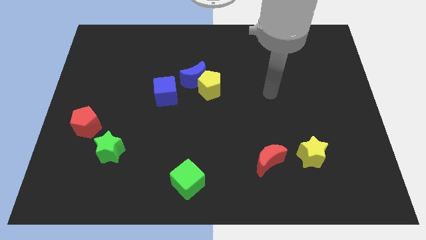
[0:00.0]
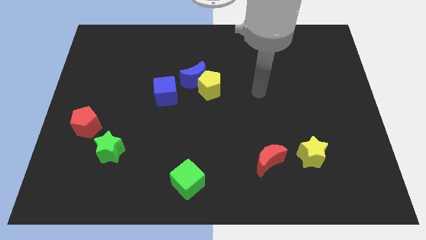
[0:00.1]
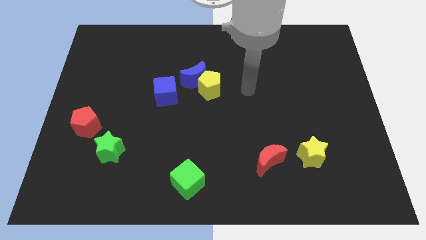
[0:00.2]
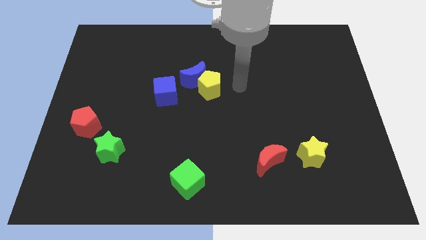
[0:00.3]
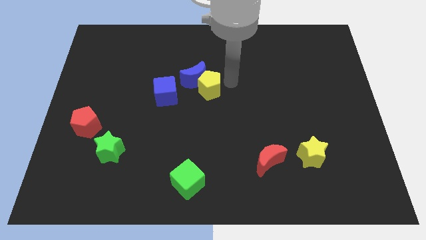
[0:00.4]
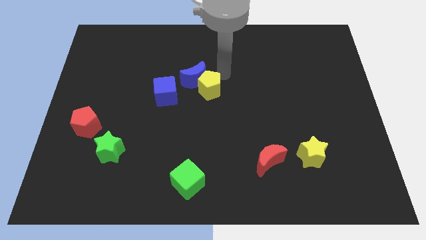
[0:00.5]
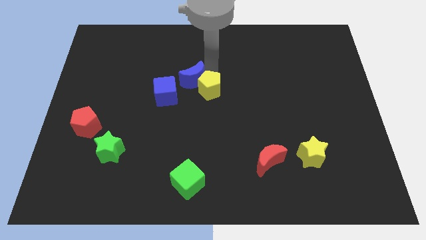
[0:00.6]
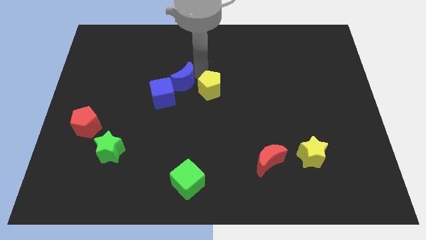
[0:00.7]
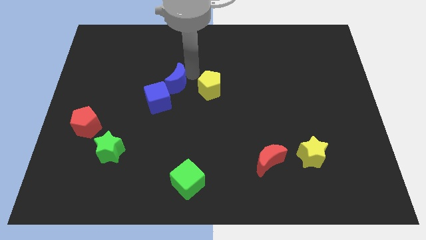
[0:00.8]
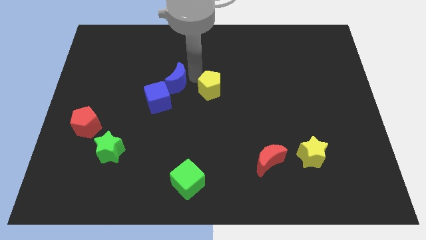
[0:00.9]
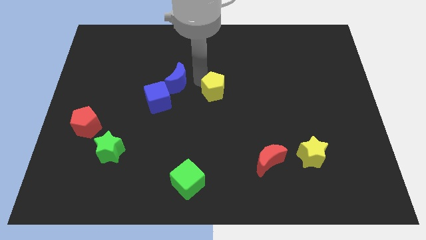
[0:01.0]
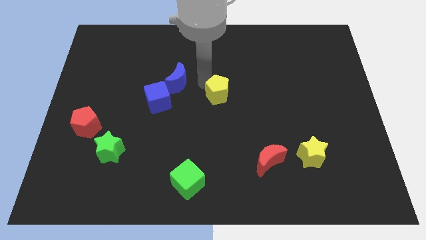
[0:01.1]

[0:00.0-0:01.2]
move the yellow pentagon away from the blue moon

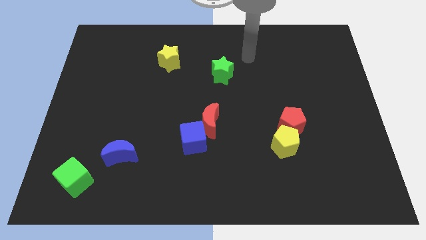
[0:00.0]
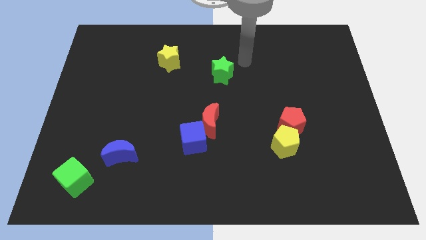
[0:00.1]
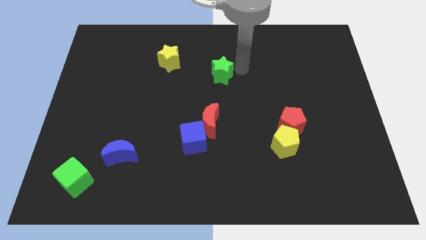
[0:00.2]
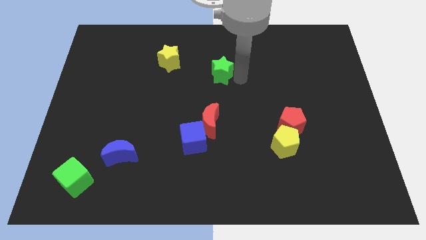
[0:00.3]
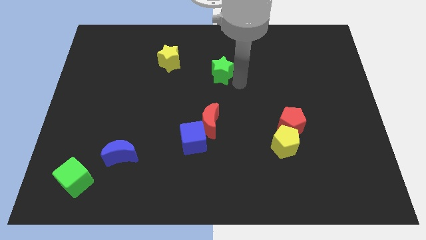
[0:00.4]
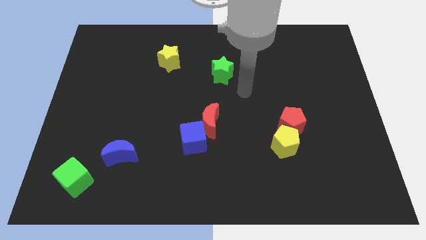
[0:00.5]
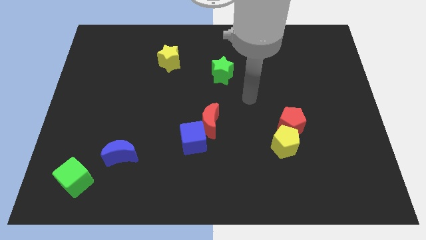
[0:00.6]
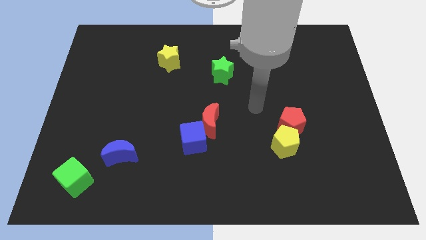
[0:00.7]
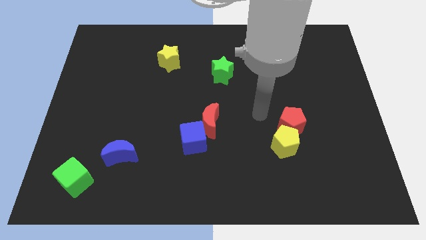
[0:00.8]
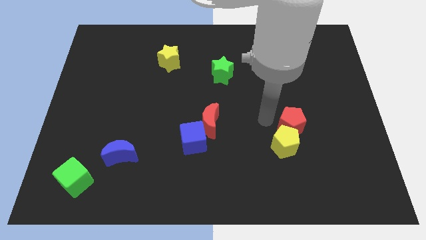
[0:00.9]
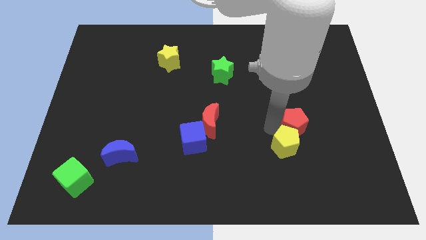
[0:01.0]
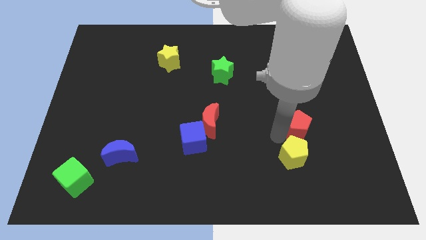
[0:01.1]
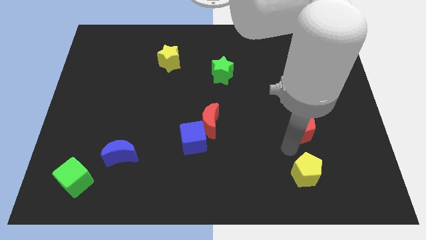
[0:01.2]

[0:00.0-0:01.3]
move the red pentagon away from the yellow pentagon

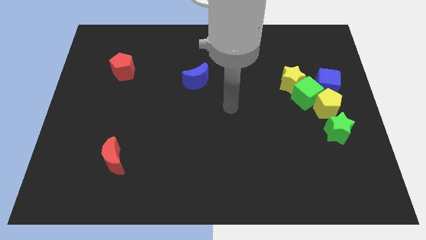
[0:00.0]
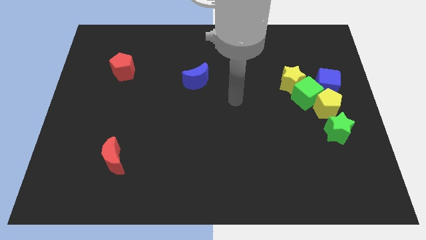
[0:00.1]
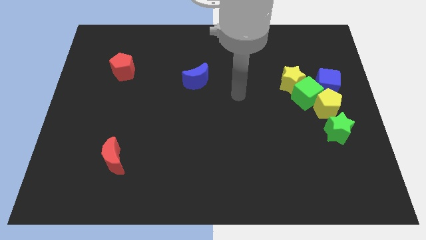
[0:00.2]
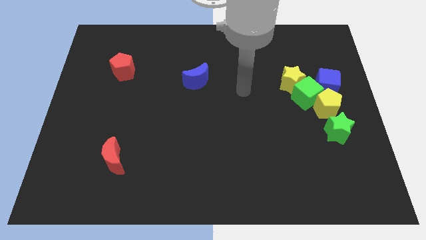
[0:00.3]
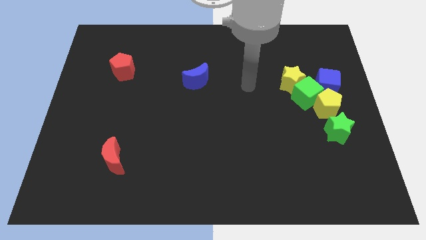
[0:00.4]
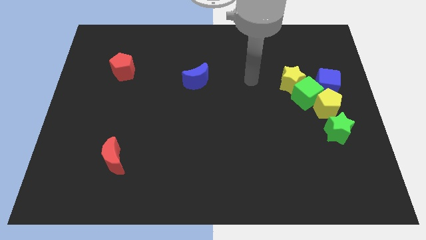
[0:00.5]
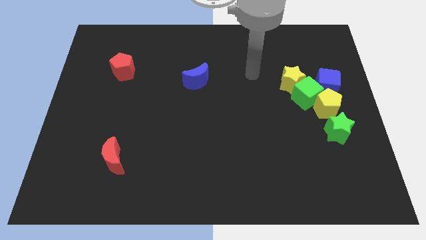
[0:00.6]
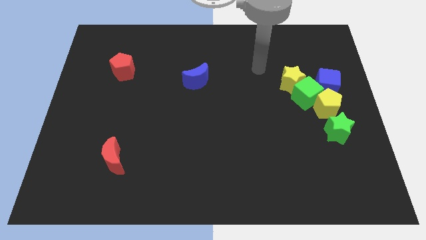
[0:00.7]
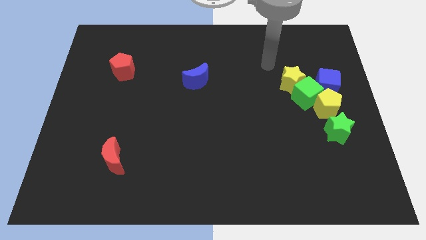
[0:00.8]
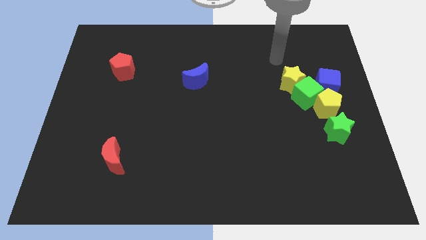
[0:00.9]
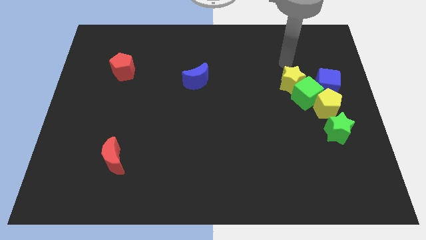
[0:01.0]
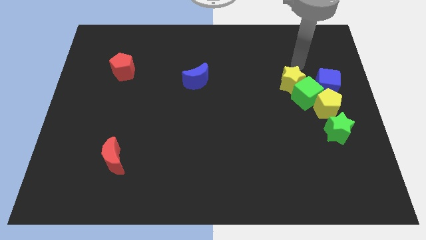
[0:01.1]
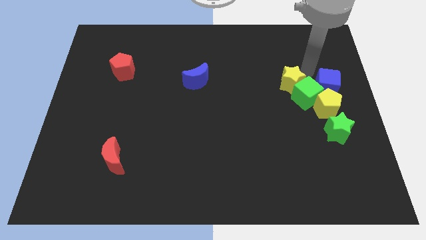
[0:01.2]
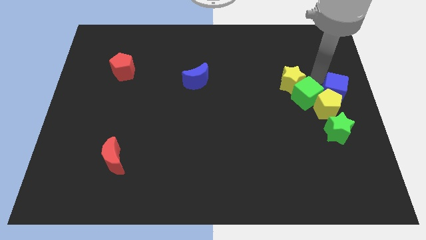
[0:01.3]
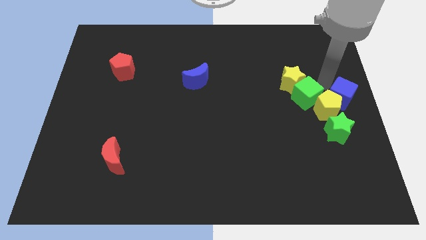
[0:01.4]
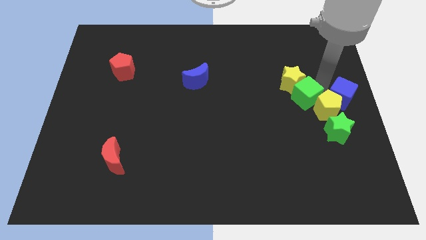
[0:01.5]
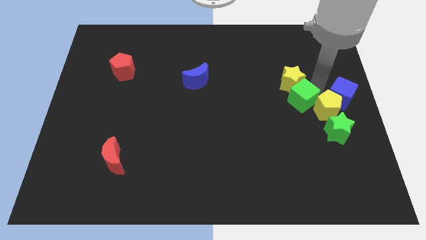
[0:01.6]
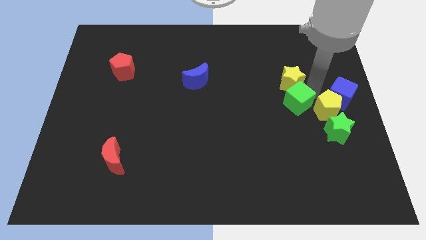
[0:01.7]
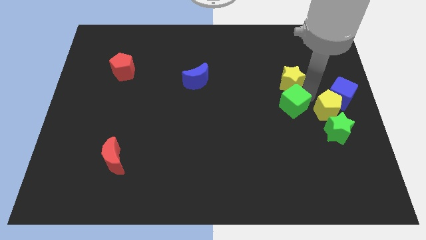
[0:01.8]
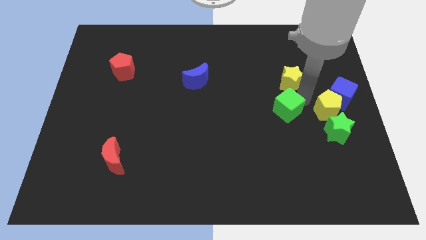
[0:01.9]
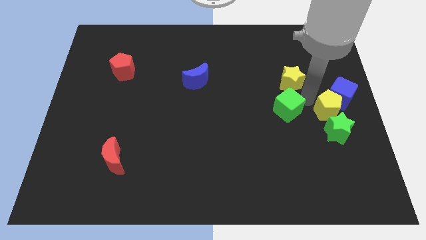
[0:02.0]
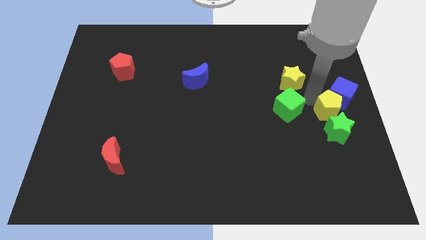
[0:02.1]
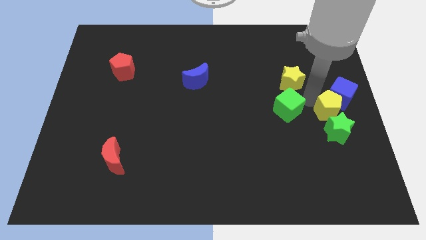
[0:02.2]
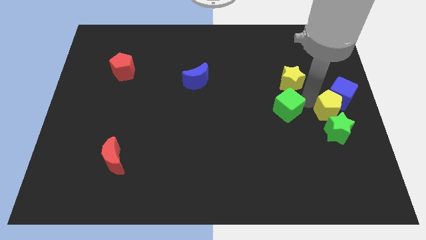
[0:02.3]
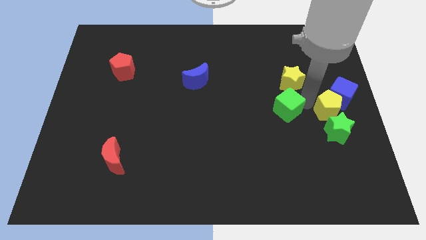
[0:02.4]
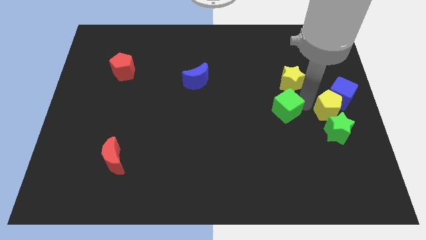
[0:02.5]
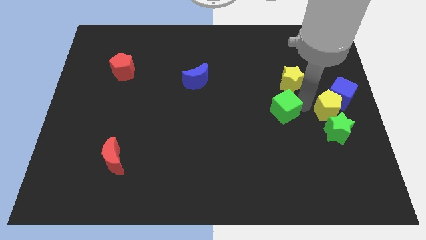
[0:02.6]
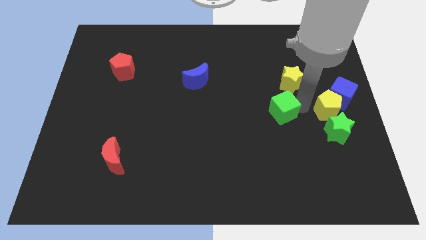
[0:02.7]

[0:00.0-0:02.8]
separate the green cube from the yellow star, yellow pentagon, and blue cube

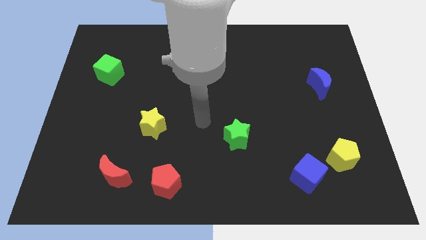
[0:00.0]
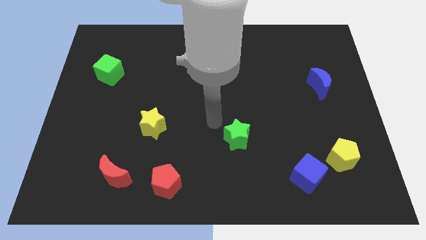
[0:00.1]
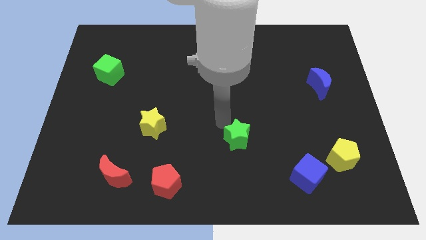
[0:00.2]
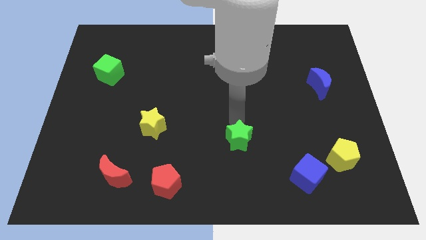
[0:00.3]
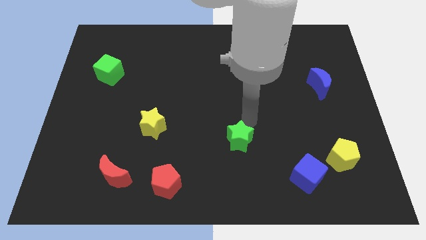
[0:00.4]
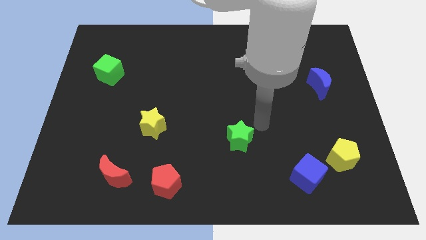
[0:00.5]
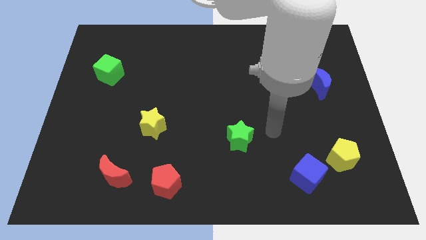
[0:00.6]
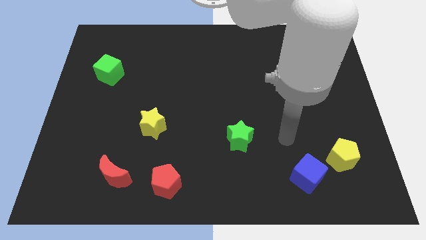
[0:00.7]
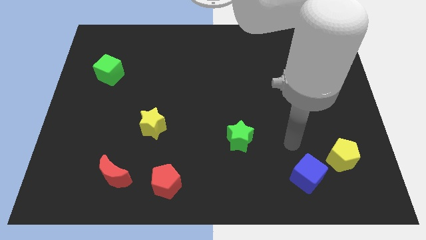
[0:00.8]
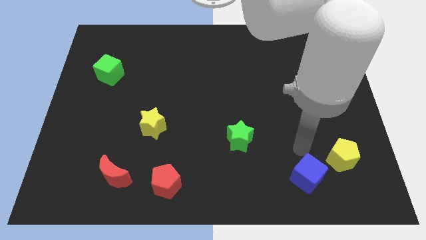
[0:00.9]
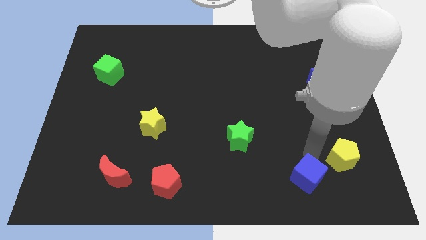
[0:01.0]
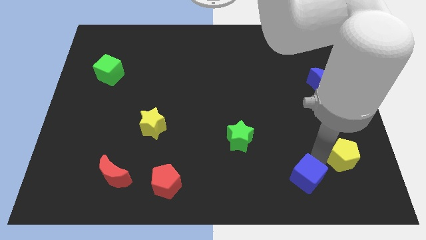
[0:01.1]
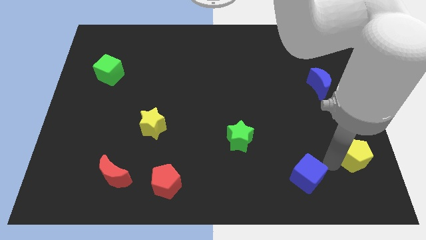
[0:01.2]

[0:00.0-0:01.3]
pull the blue cube apart from the yellow pentagon

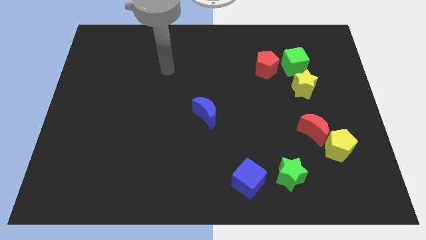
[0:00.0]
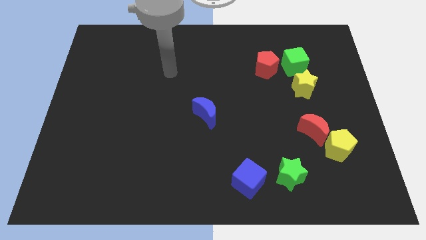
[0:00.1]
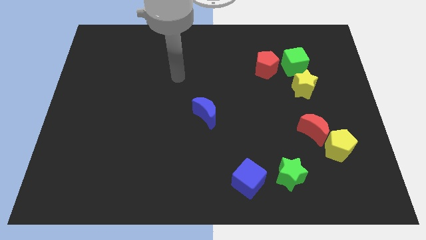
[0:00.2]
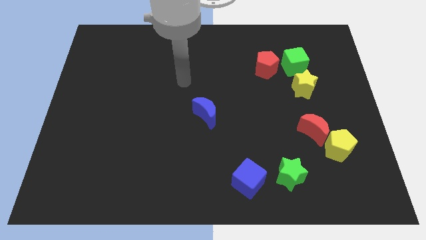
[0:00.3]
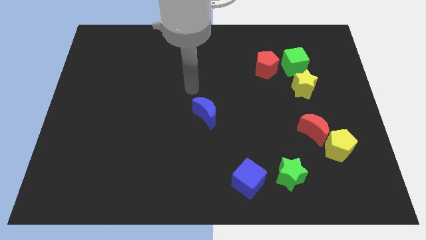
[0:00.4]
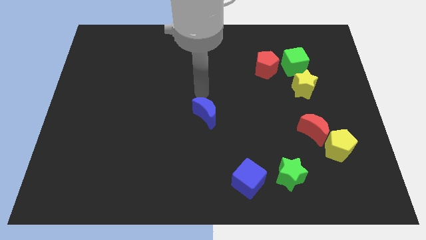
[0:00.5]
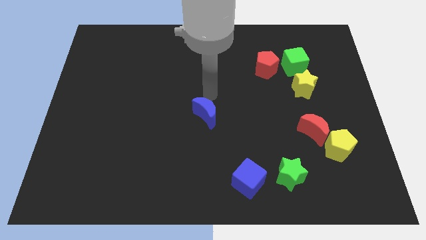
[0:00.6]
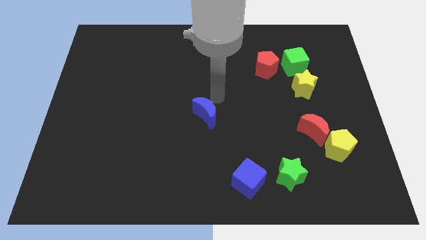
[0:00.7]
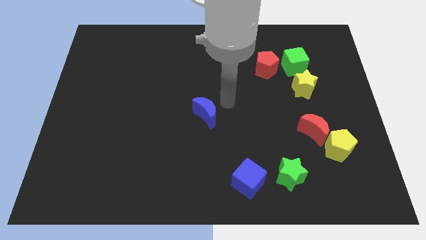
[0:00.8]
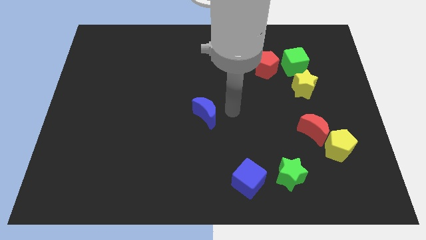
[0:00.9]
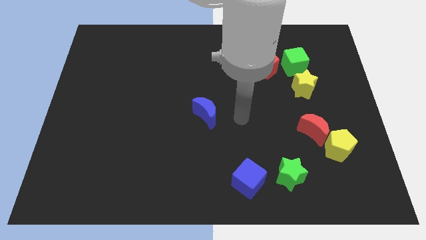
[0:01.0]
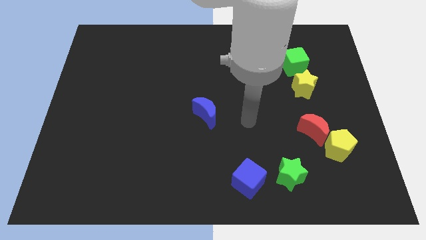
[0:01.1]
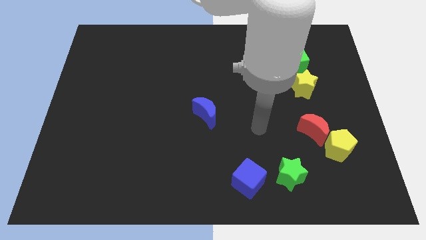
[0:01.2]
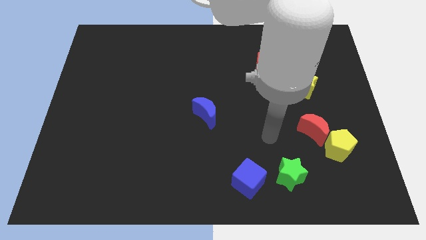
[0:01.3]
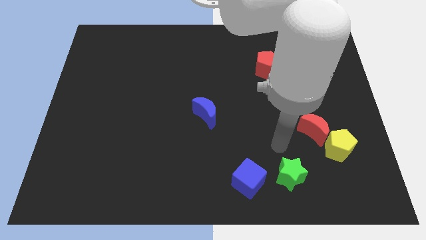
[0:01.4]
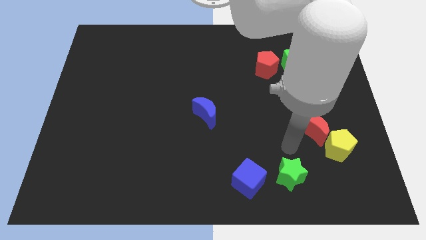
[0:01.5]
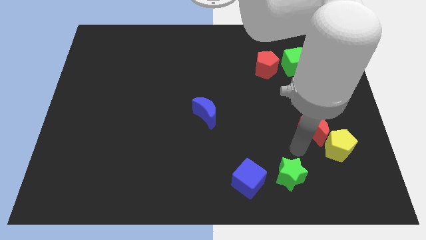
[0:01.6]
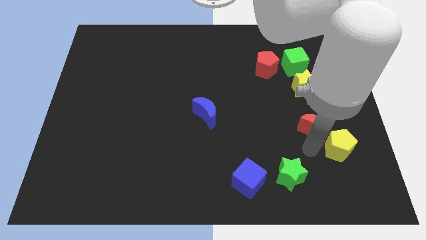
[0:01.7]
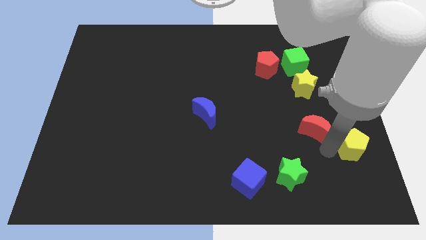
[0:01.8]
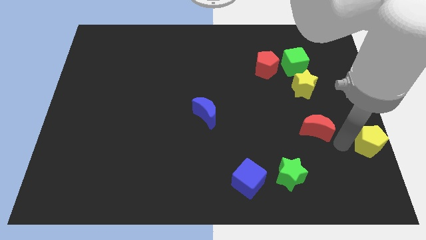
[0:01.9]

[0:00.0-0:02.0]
separate the red moon from the yellow pentagon

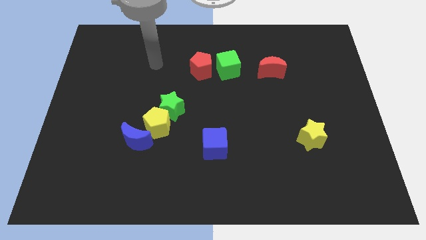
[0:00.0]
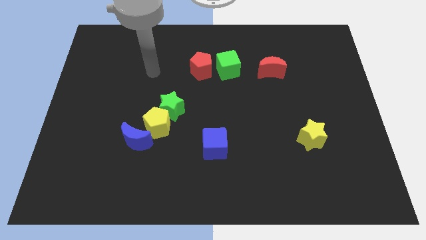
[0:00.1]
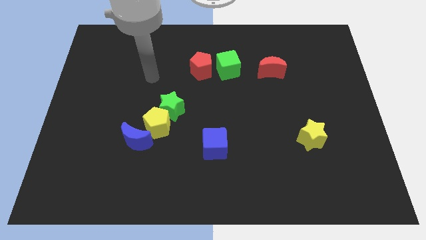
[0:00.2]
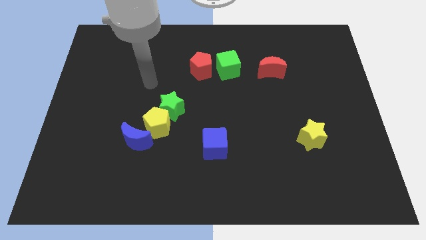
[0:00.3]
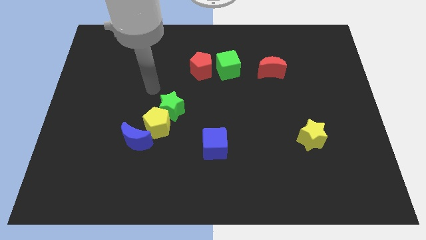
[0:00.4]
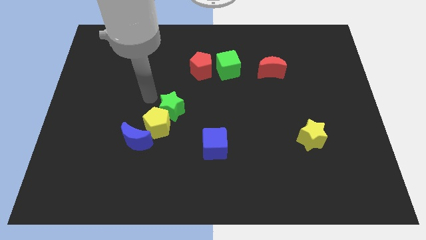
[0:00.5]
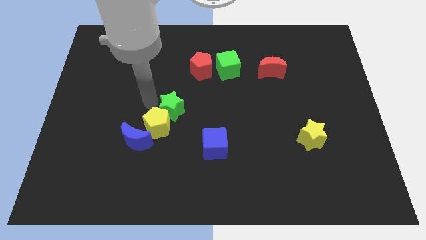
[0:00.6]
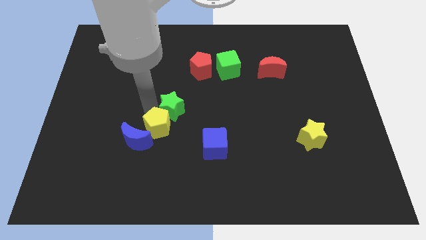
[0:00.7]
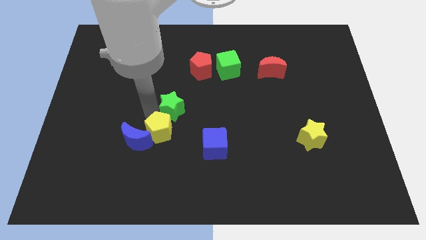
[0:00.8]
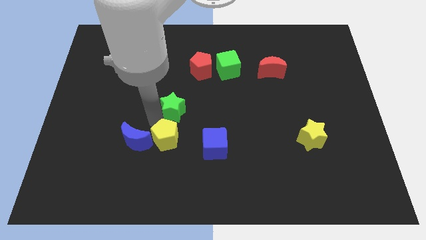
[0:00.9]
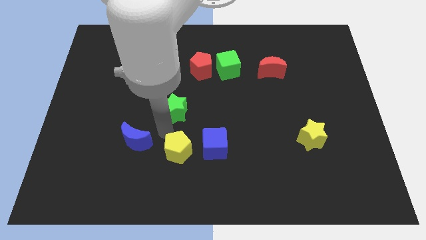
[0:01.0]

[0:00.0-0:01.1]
pull the green star apart from the yellow pentagon
